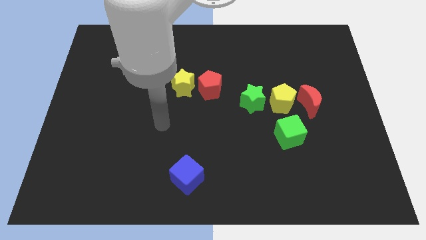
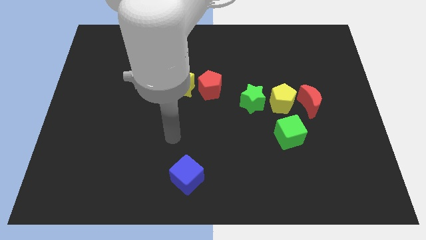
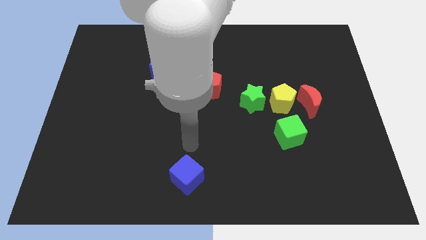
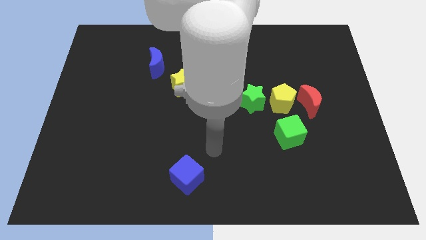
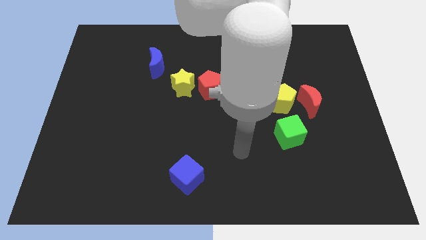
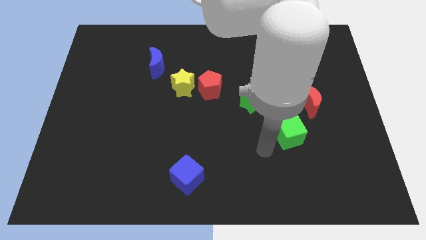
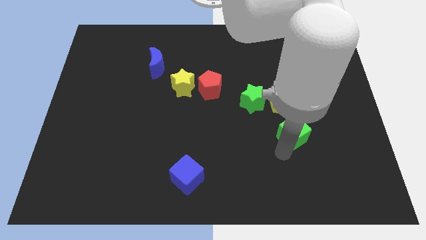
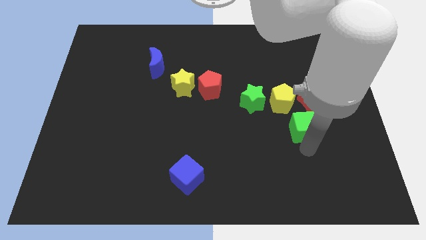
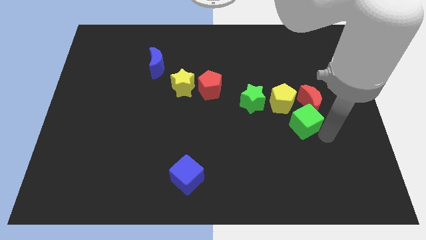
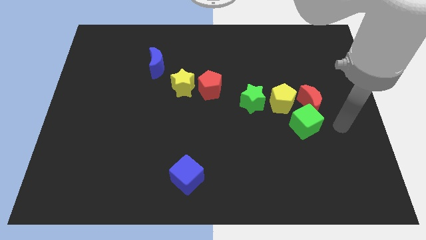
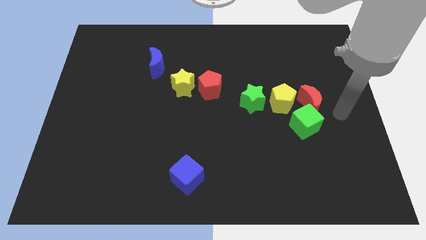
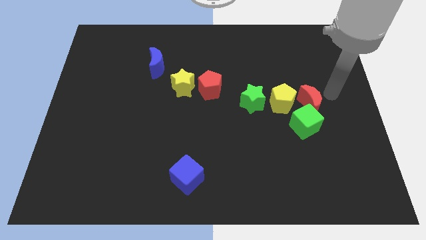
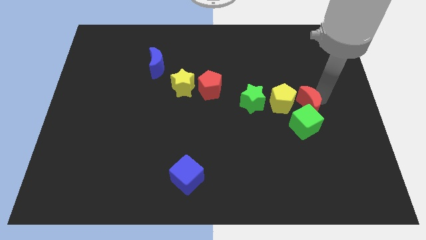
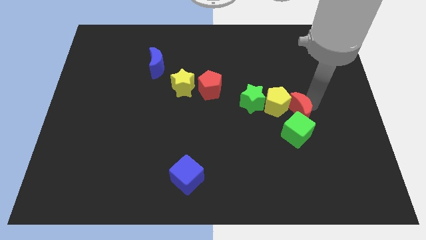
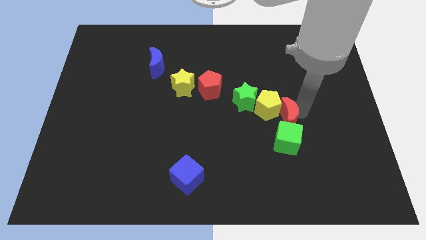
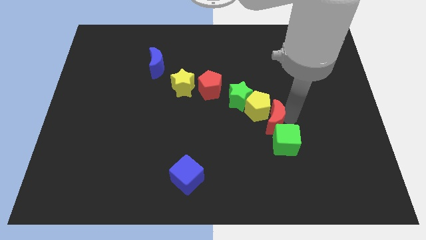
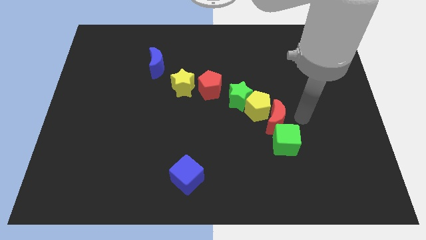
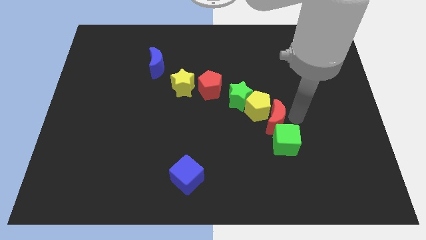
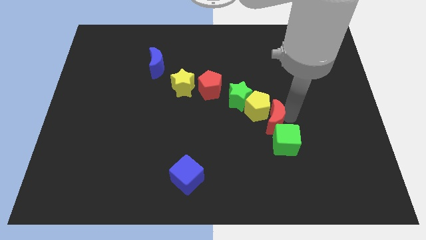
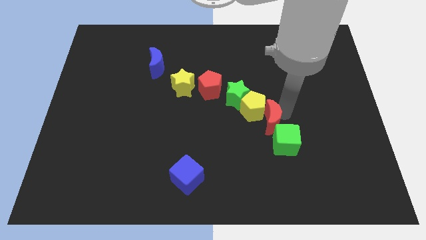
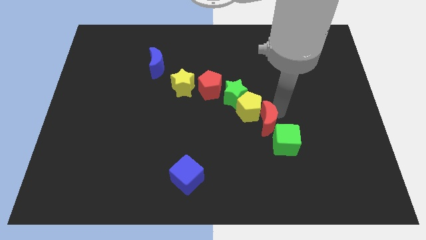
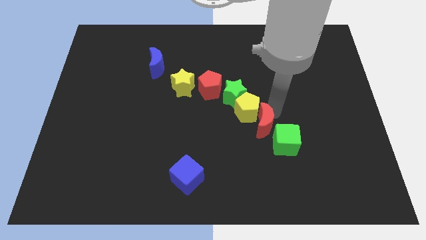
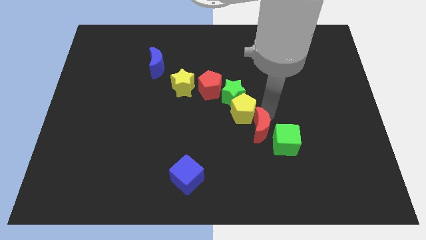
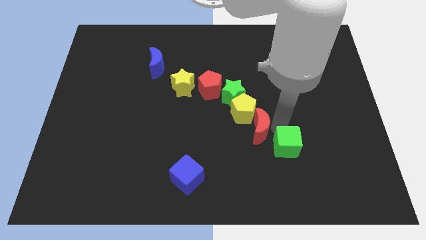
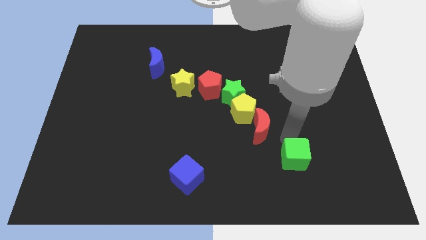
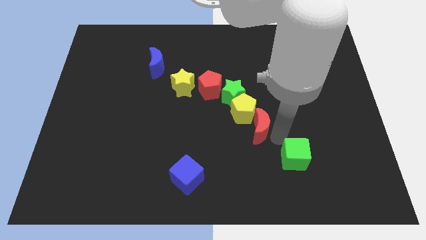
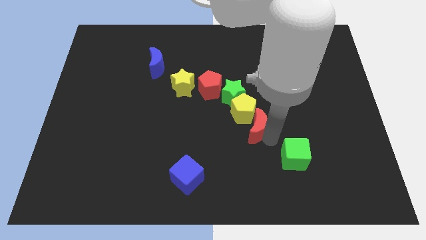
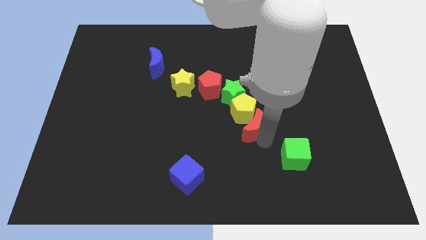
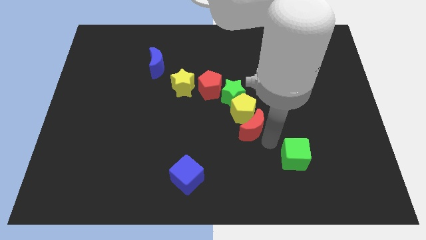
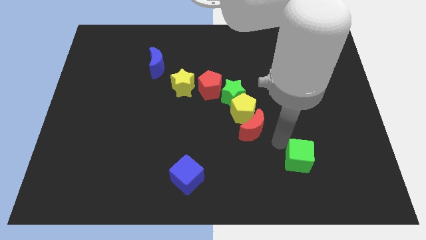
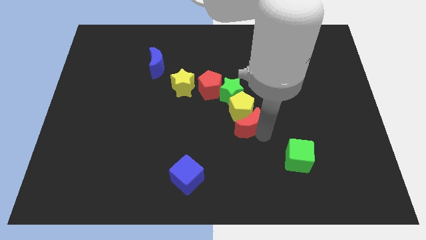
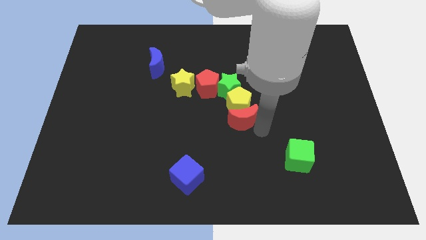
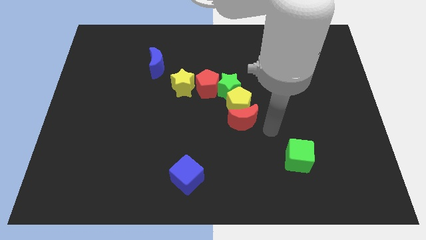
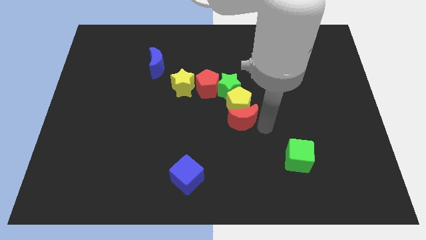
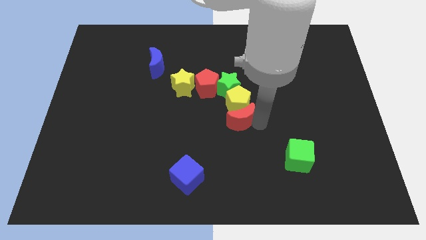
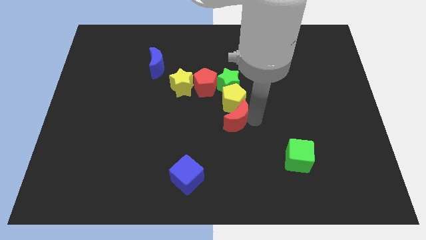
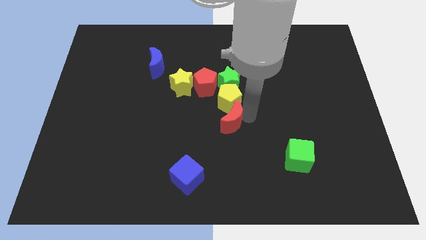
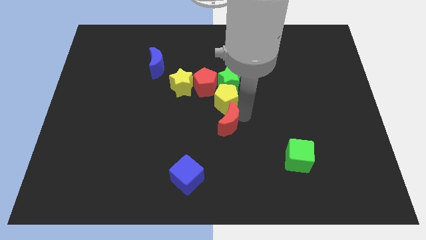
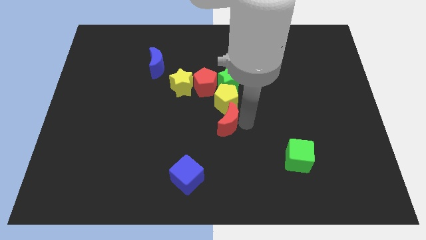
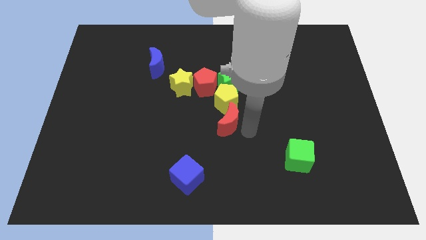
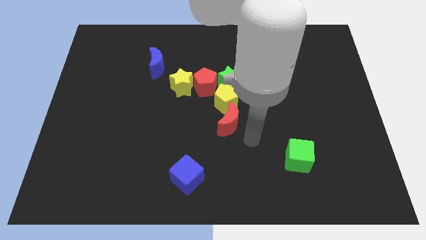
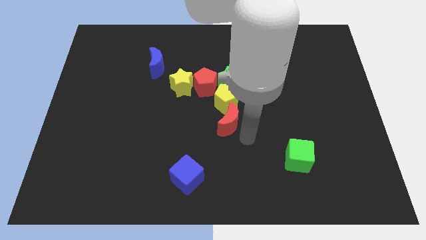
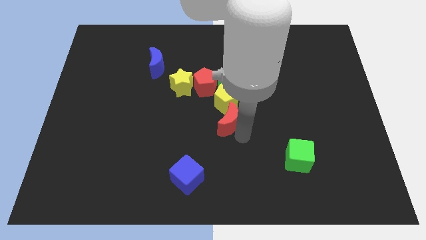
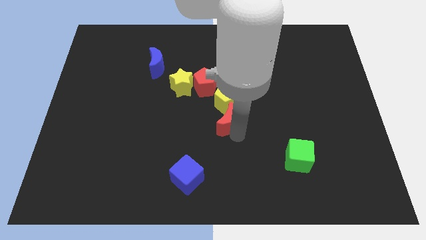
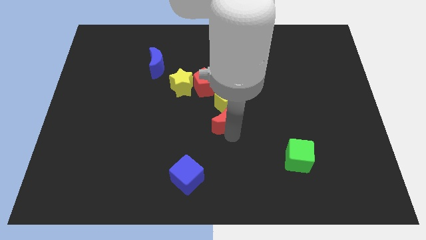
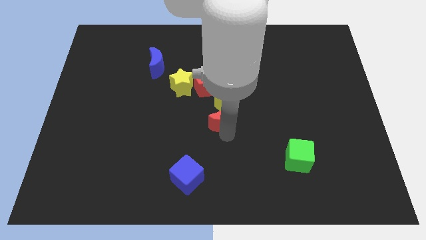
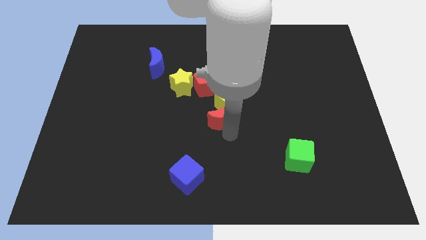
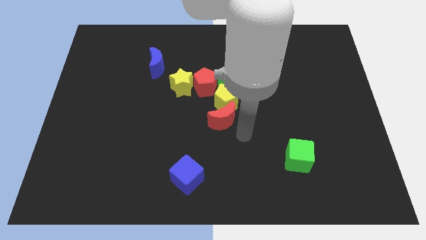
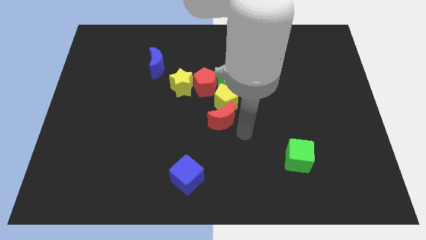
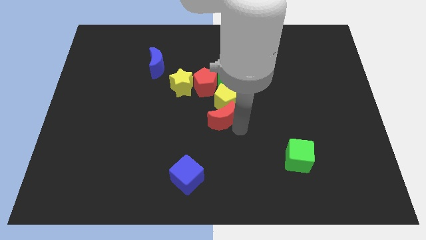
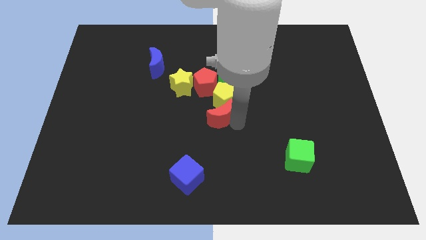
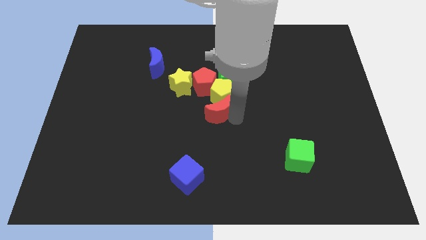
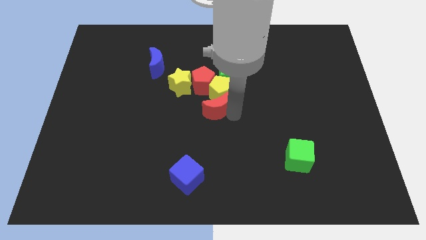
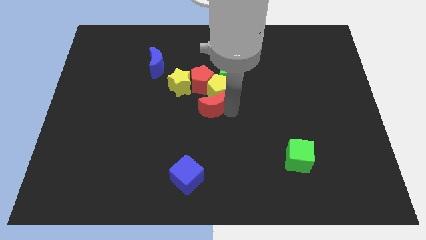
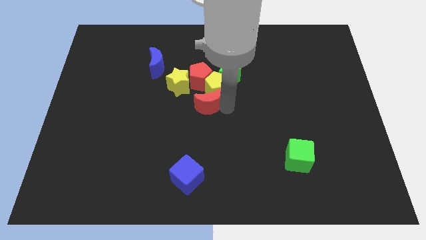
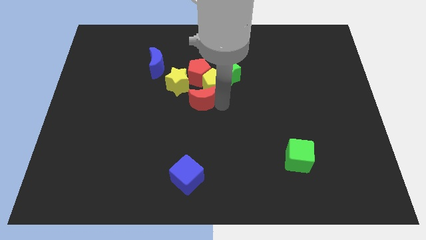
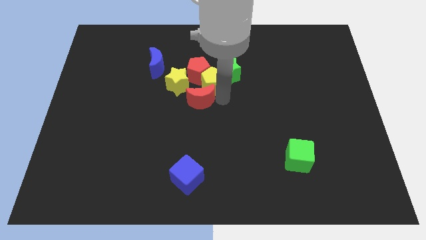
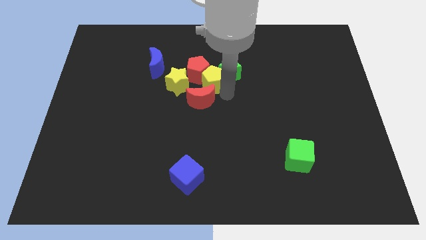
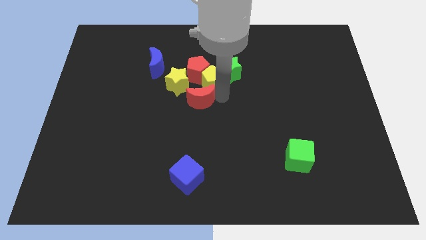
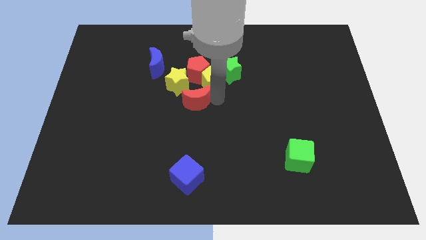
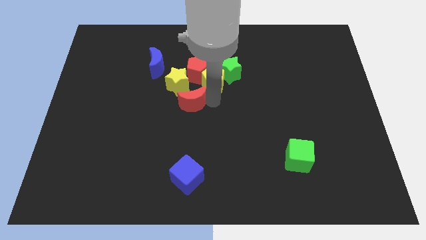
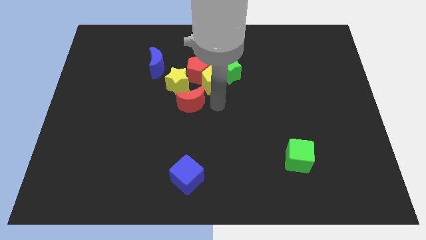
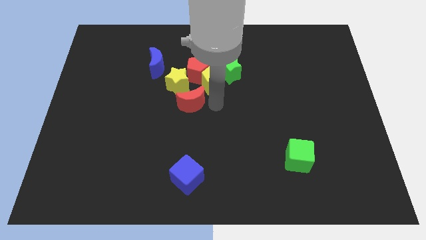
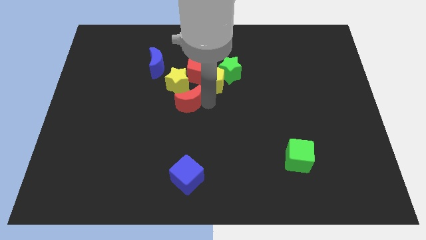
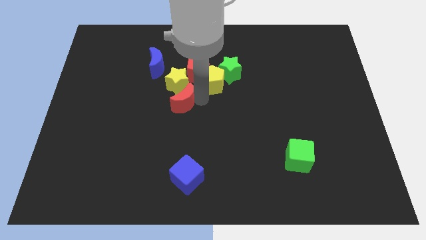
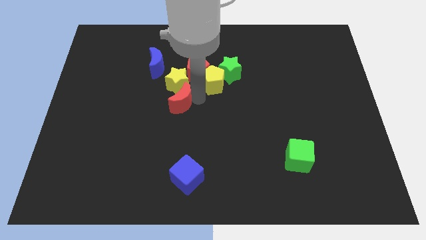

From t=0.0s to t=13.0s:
move the red moon to the bottom left of the yellow star

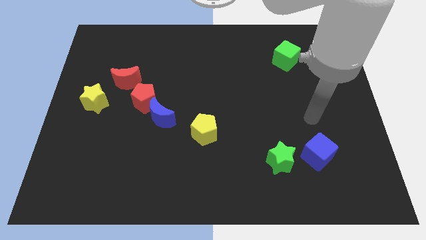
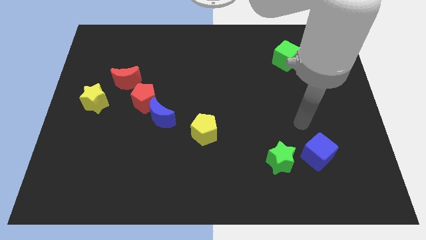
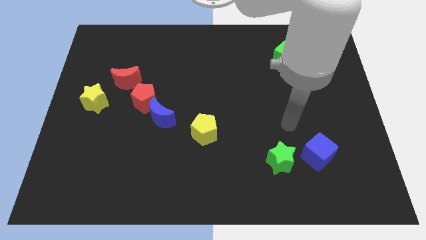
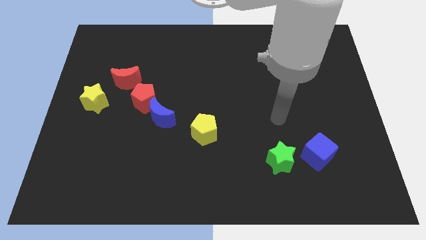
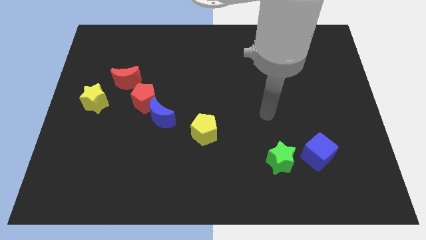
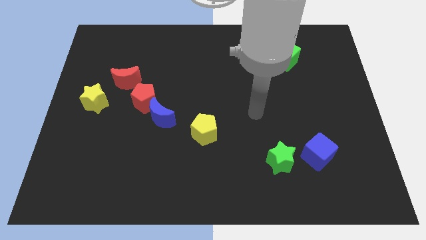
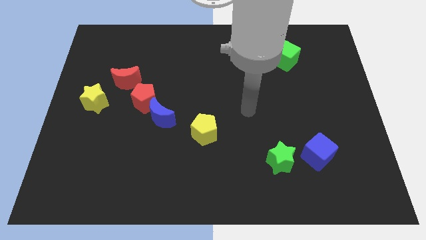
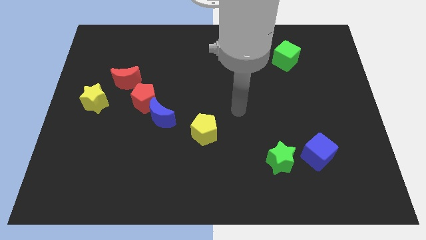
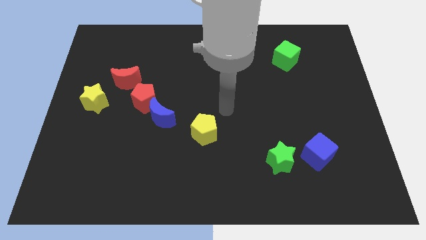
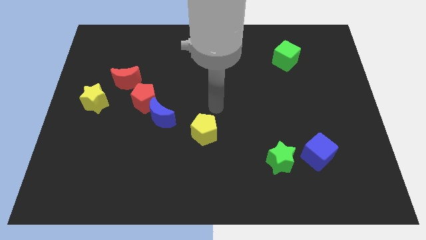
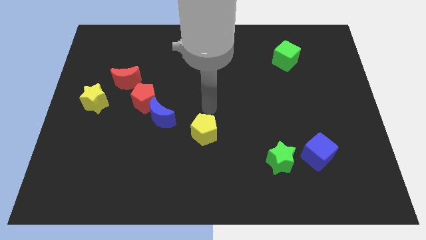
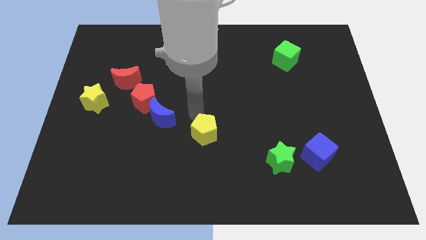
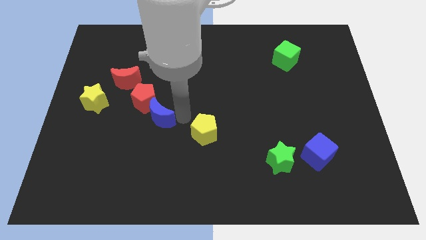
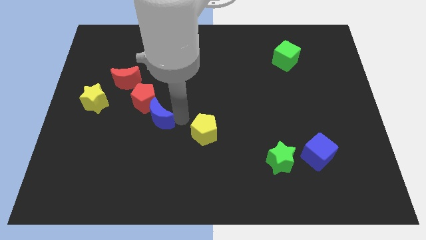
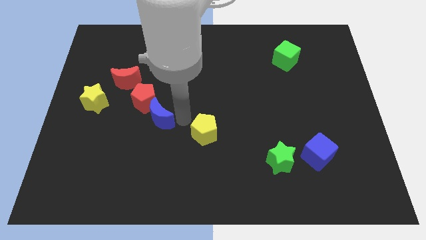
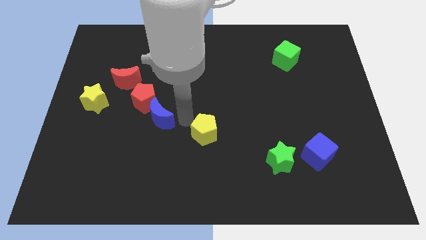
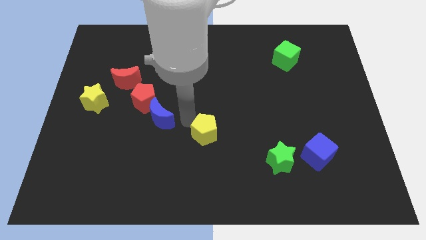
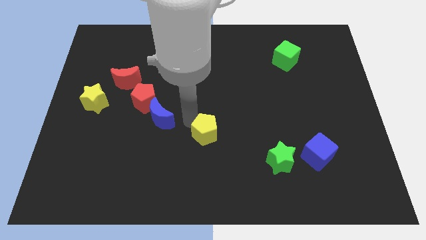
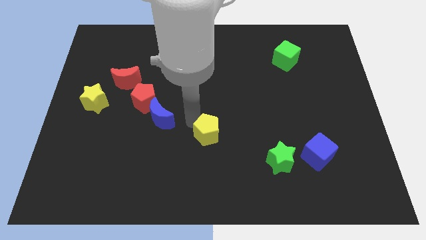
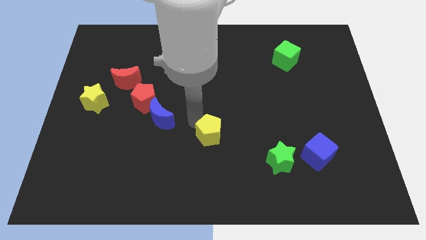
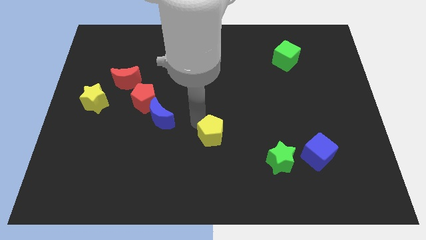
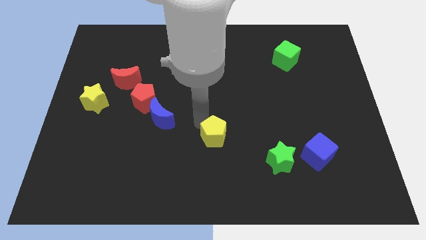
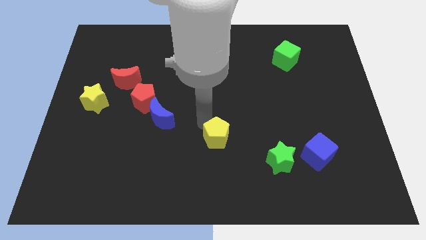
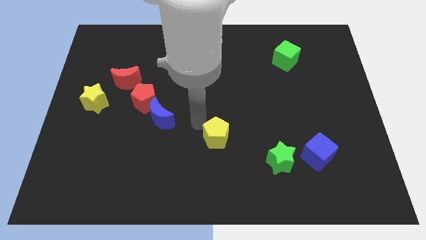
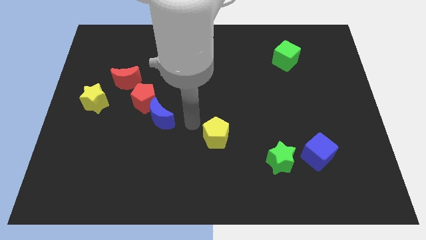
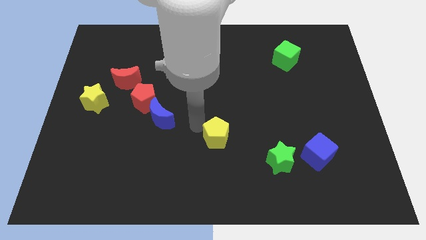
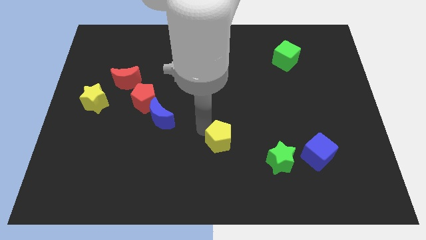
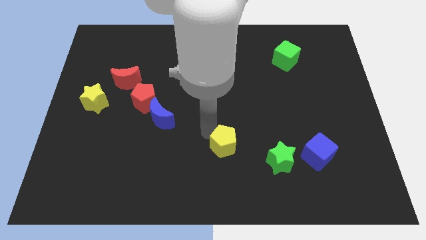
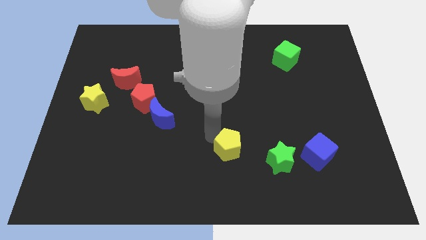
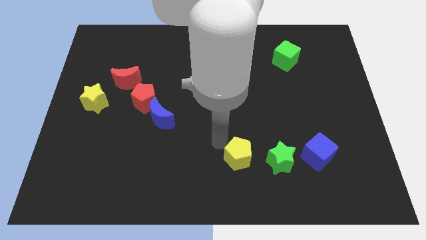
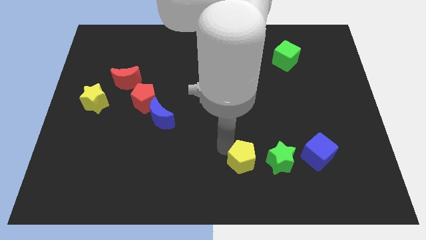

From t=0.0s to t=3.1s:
put the yellow pentagon to the left of the blue cube
